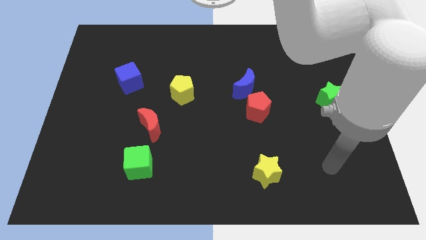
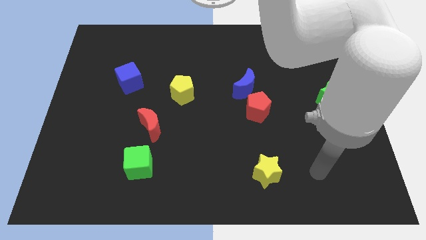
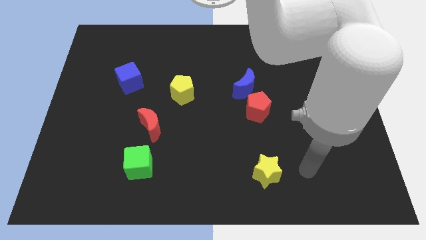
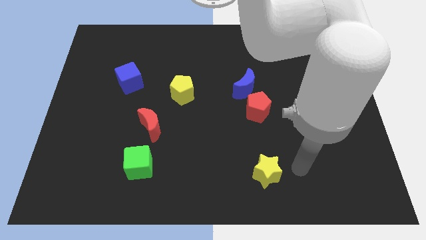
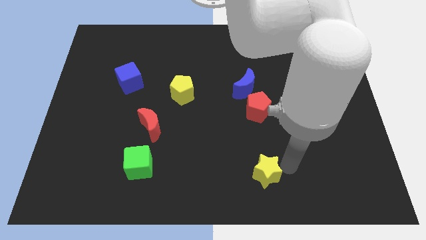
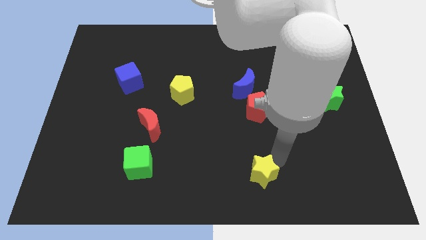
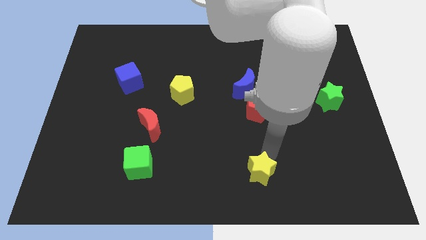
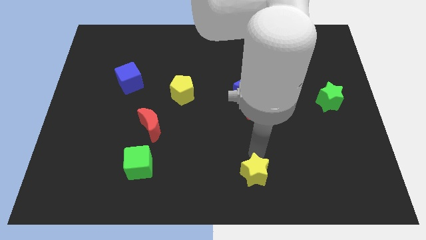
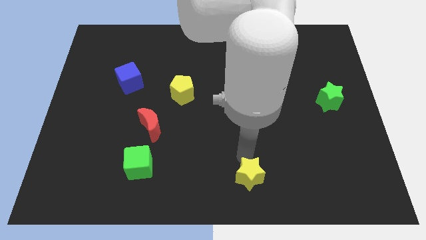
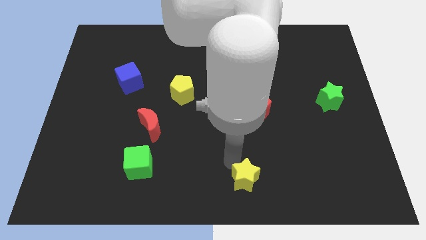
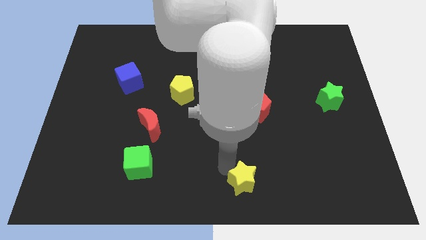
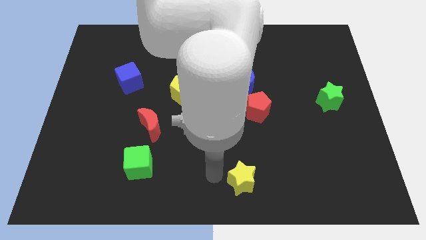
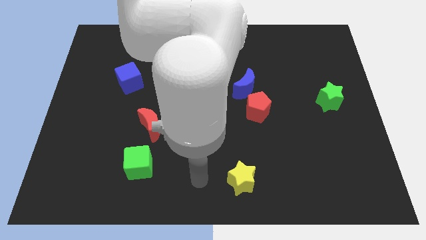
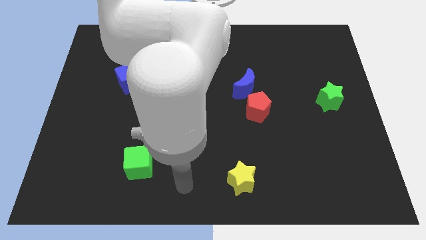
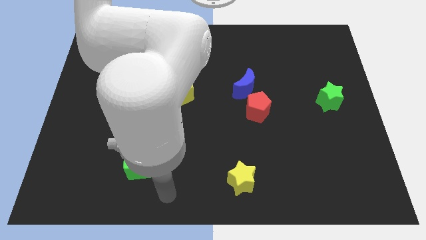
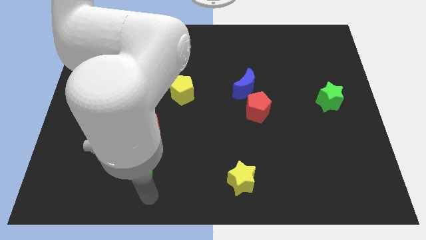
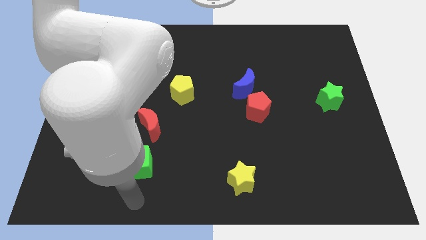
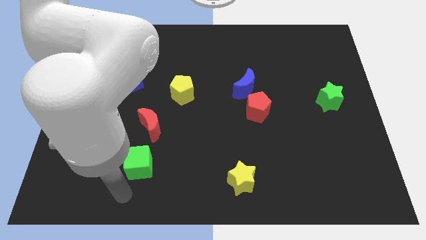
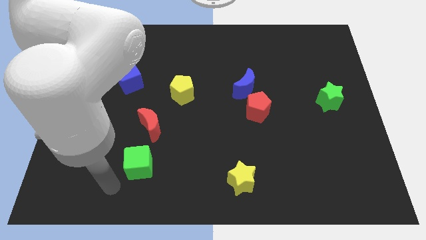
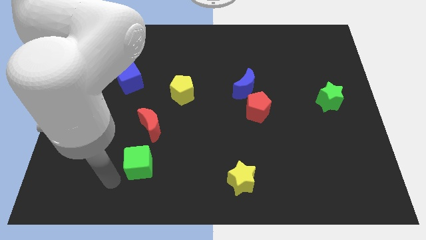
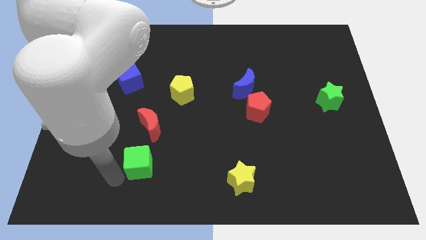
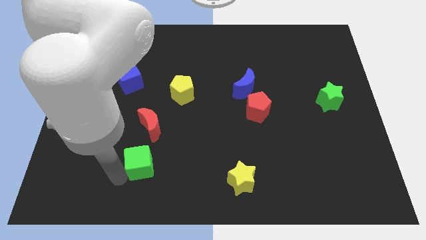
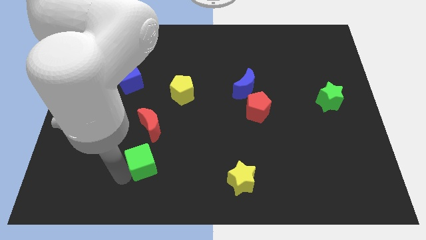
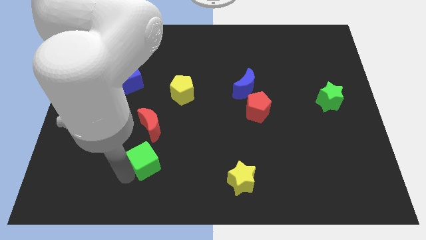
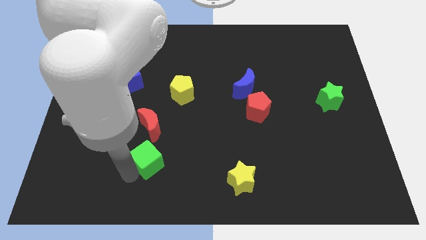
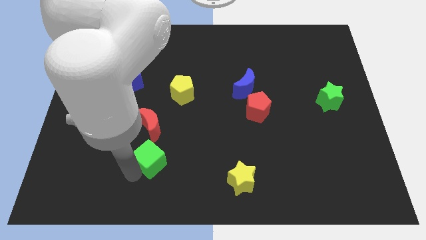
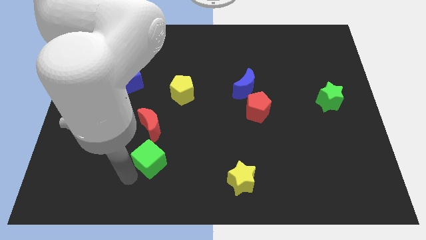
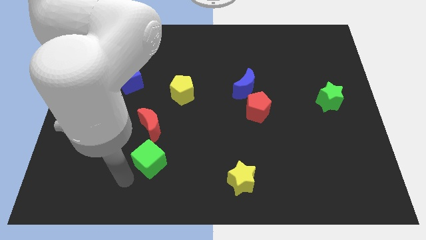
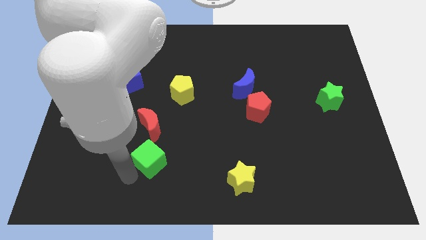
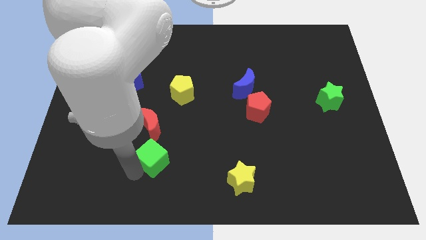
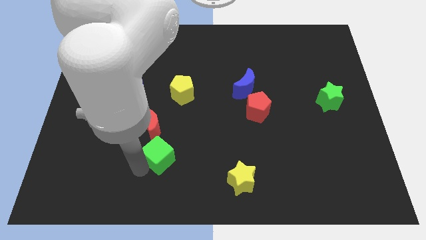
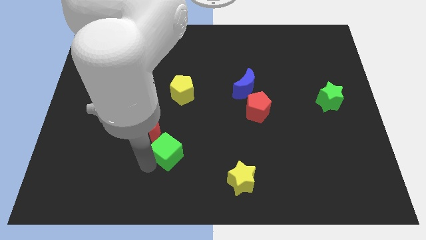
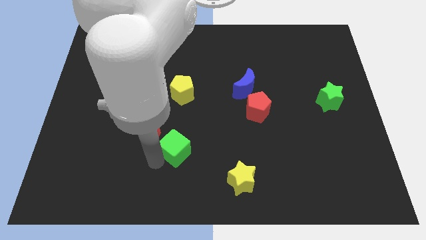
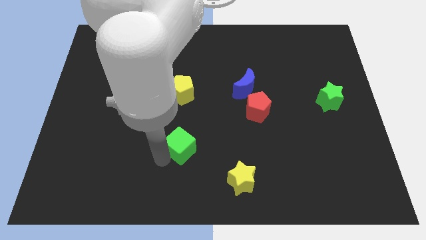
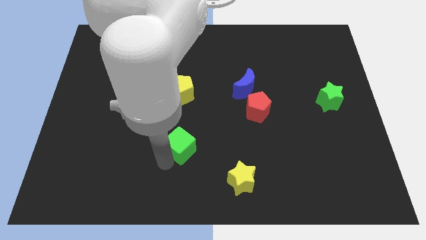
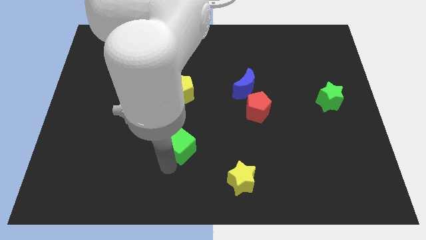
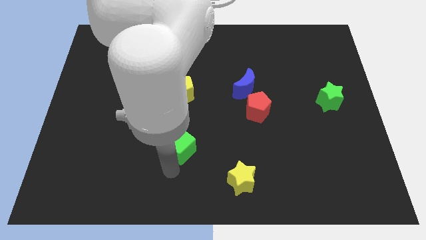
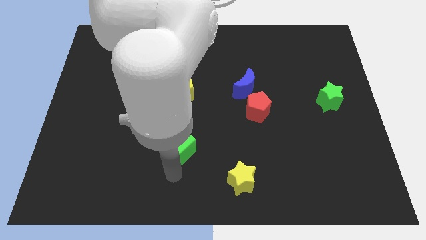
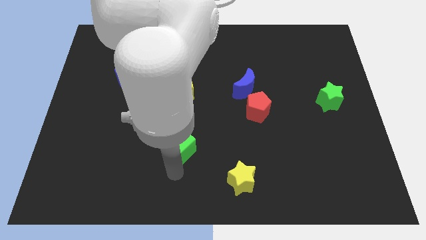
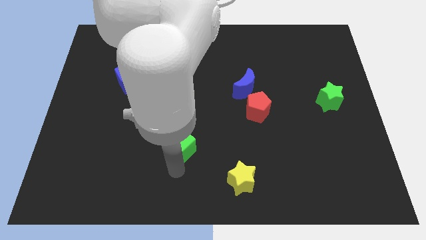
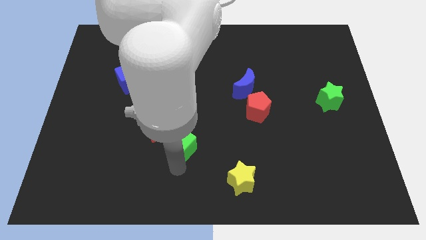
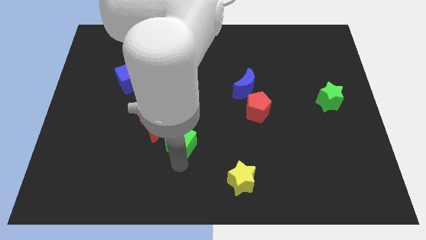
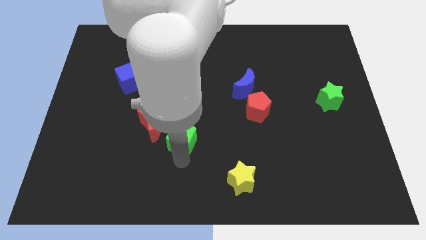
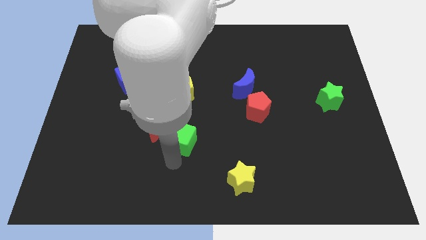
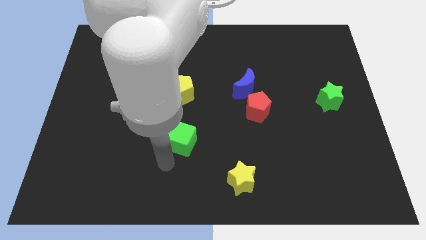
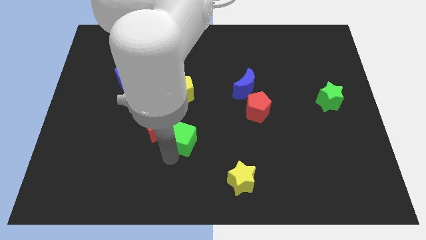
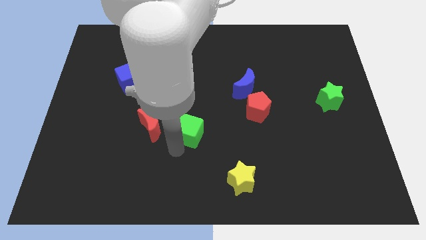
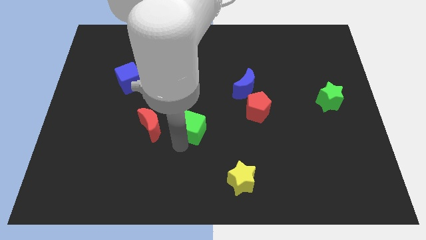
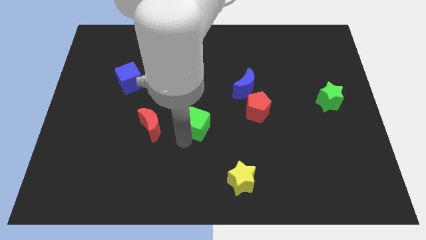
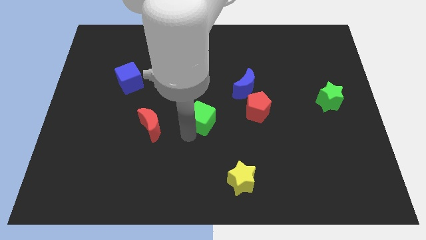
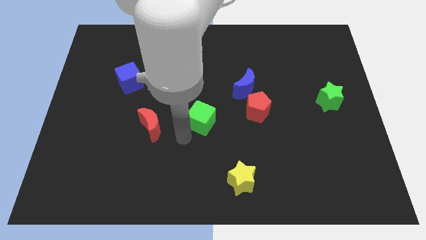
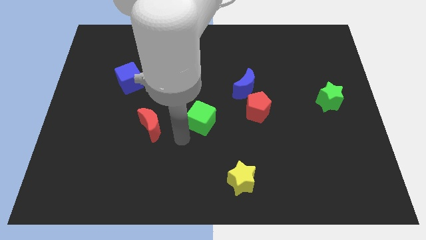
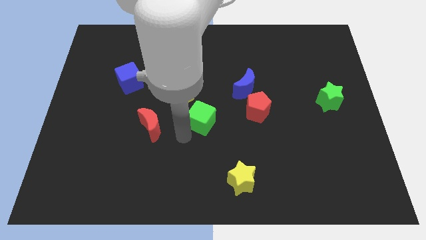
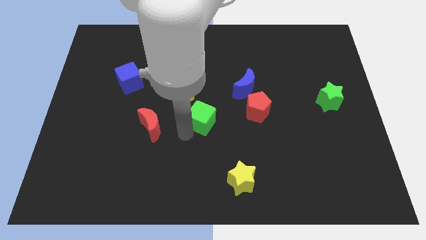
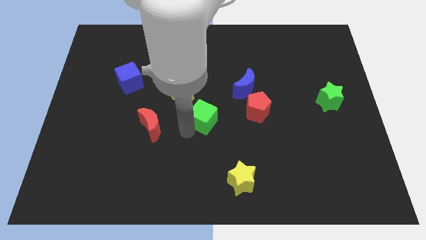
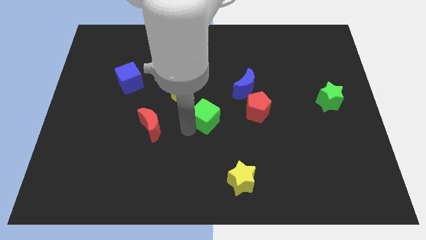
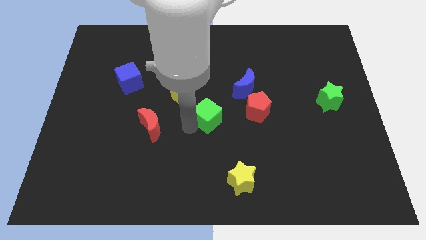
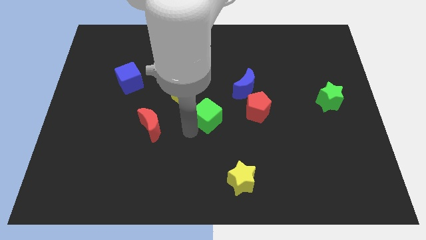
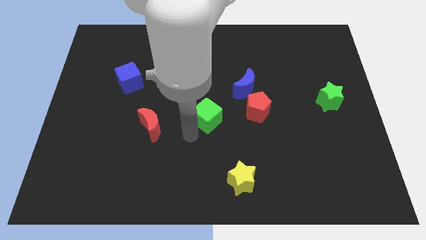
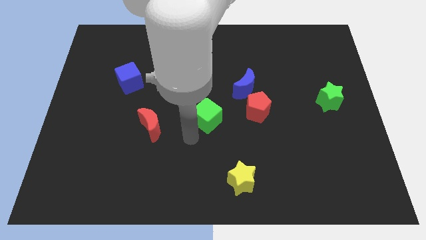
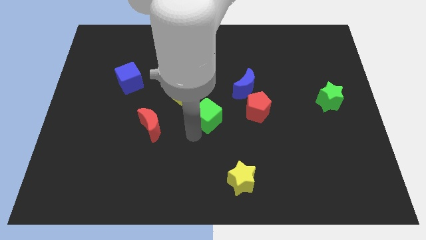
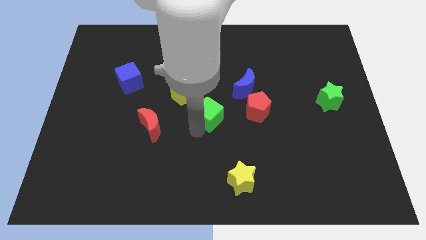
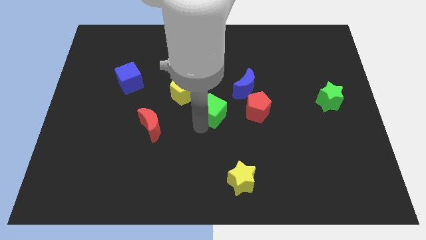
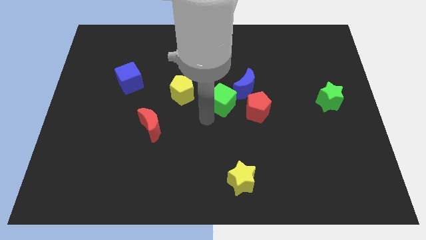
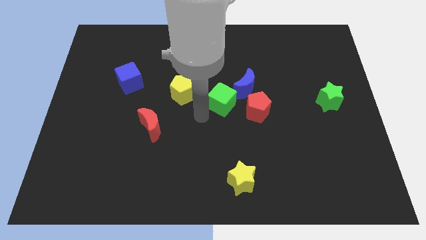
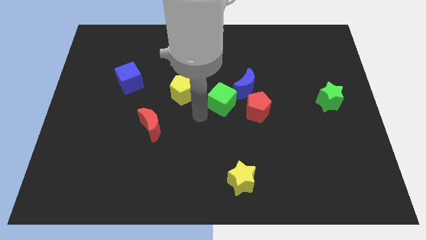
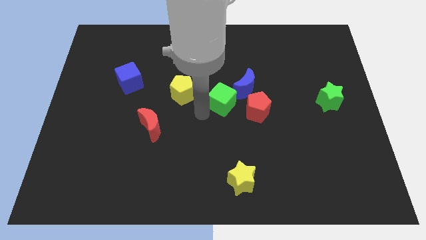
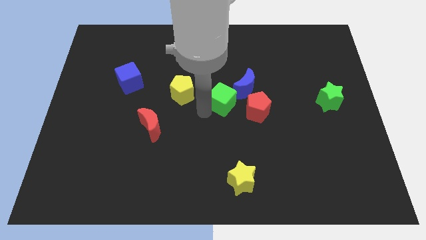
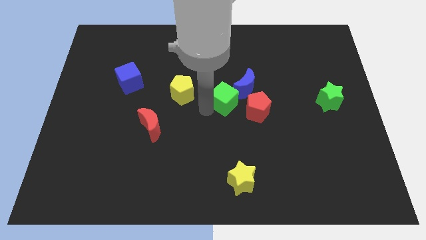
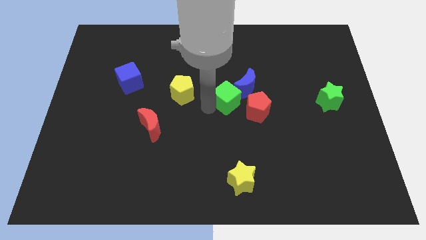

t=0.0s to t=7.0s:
put the green cube next to the blue moon
